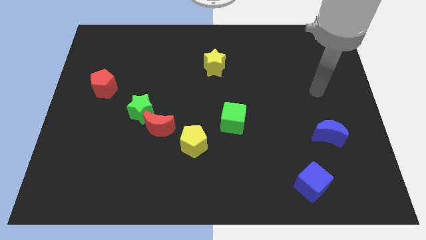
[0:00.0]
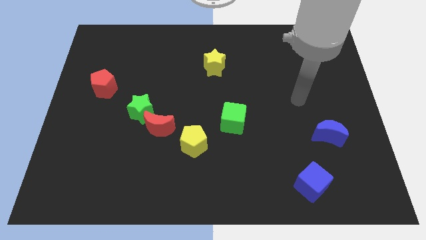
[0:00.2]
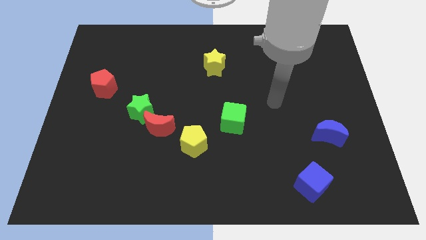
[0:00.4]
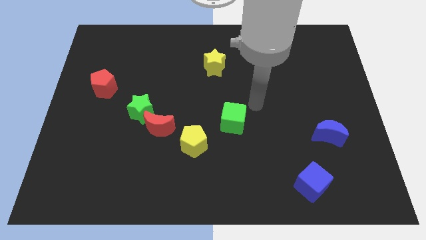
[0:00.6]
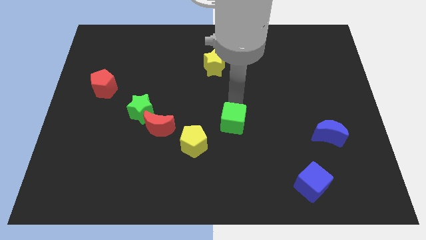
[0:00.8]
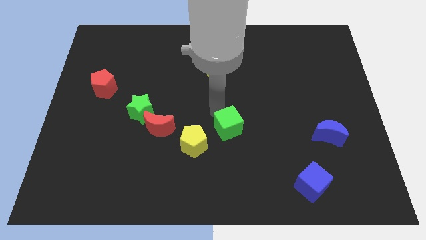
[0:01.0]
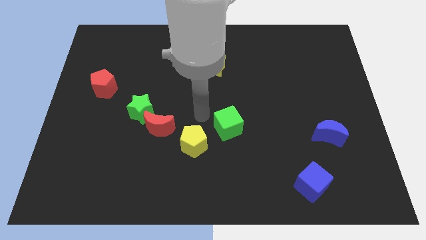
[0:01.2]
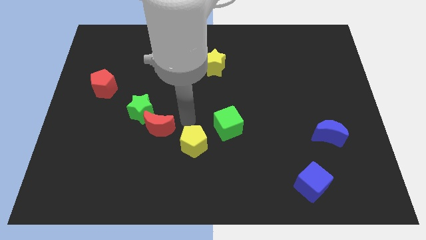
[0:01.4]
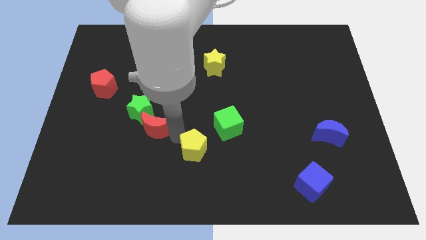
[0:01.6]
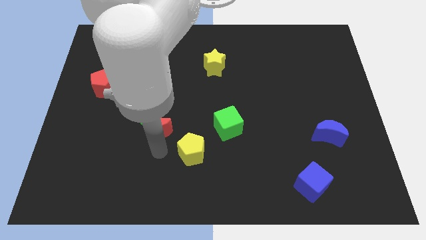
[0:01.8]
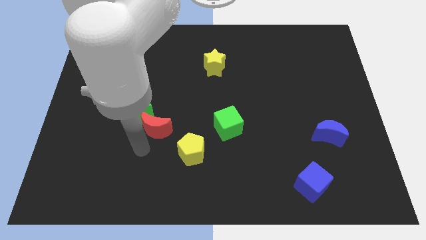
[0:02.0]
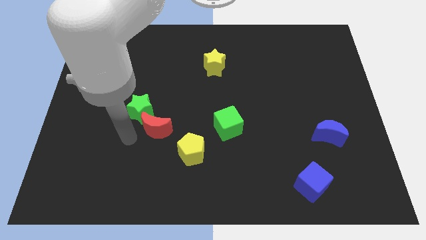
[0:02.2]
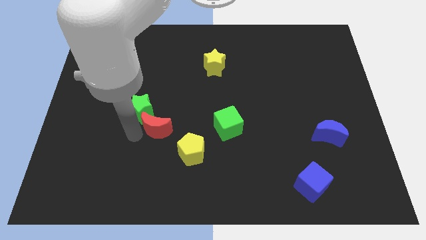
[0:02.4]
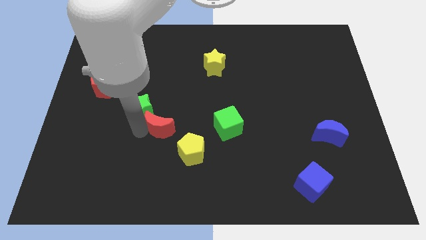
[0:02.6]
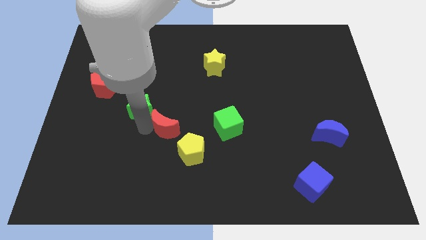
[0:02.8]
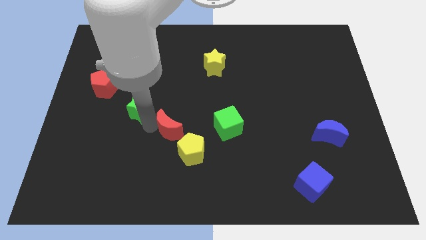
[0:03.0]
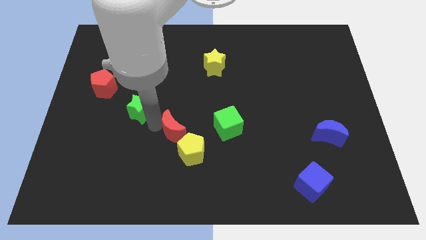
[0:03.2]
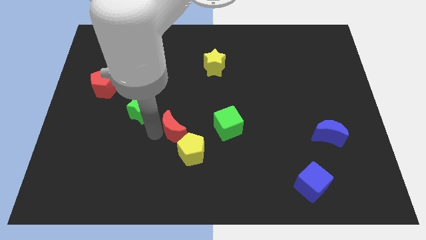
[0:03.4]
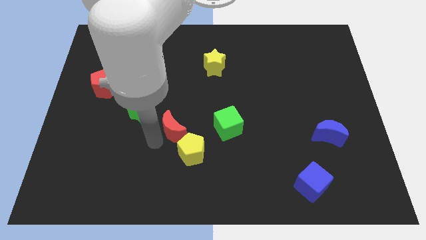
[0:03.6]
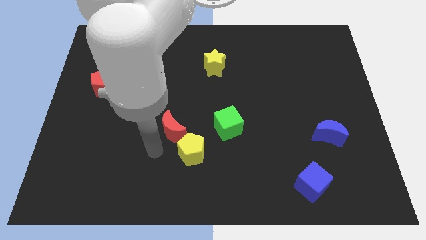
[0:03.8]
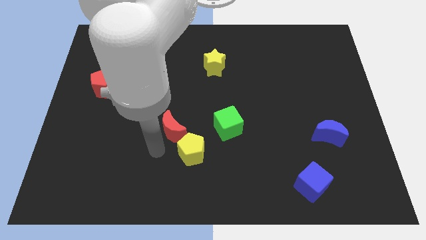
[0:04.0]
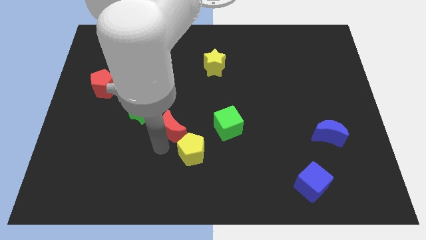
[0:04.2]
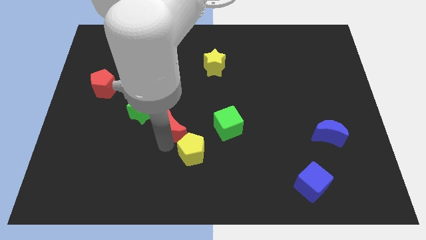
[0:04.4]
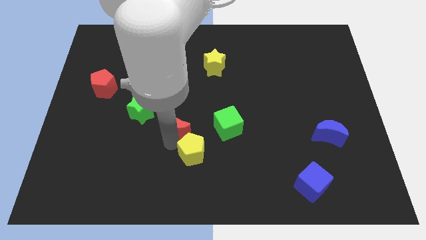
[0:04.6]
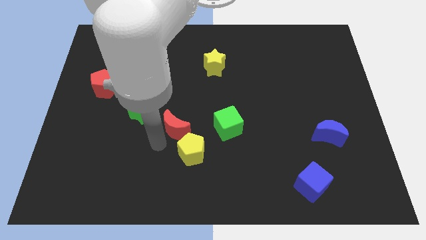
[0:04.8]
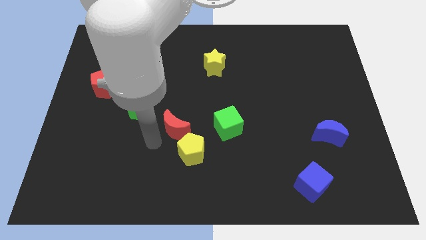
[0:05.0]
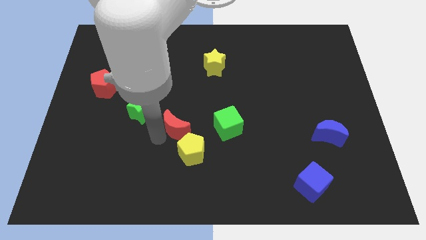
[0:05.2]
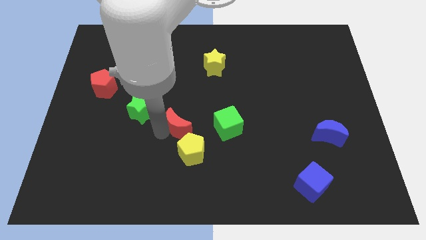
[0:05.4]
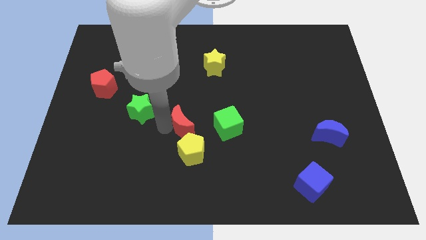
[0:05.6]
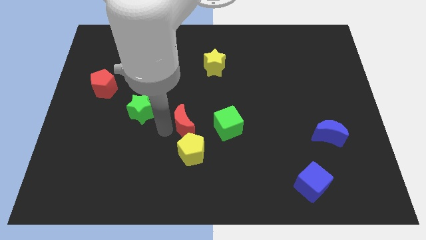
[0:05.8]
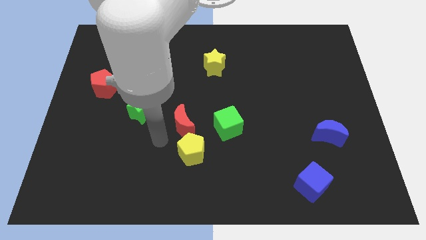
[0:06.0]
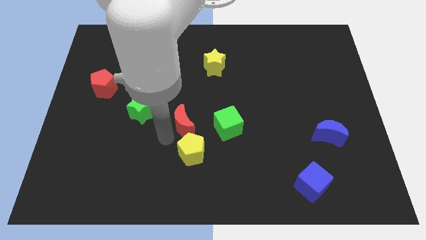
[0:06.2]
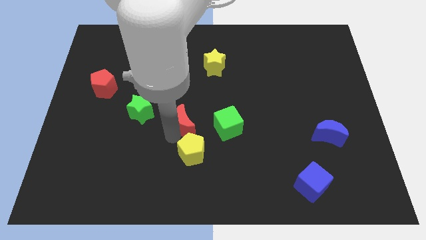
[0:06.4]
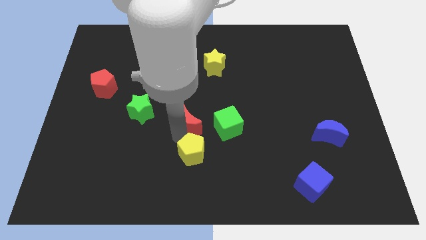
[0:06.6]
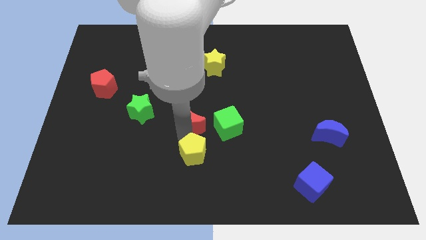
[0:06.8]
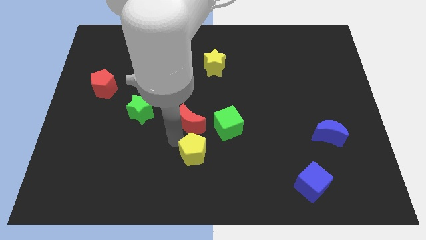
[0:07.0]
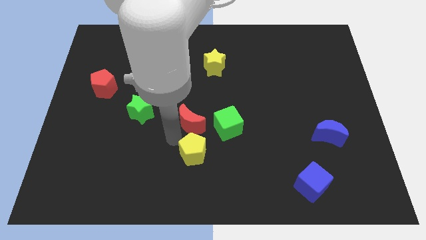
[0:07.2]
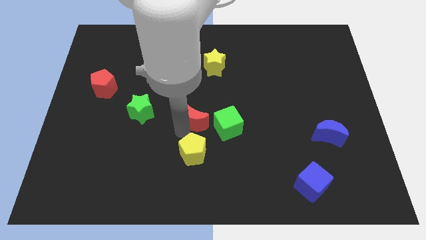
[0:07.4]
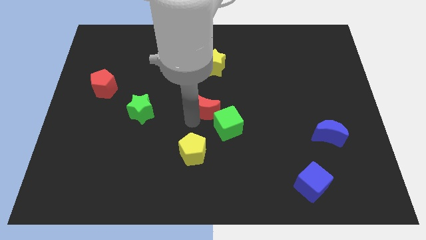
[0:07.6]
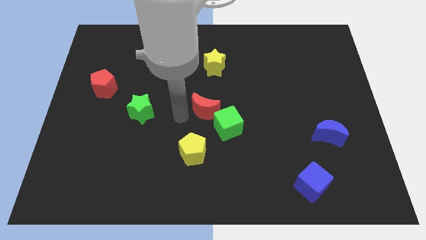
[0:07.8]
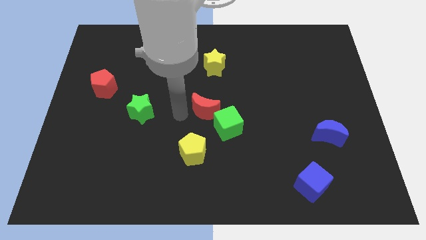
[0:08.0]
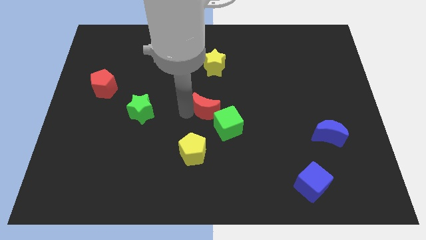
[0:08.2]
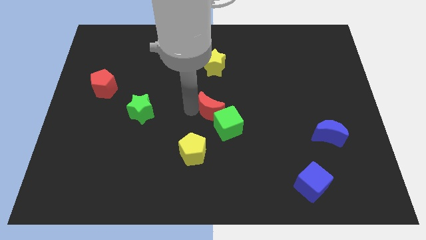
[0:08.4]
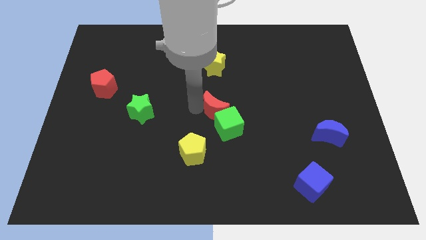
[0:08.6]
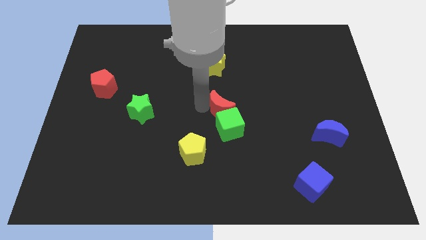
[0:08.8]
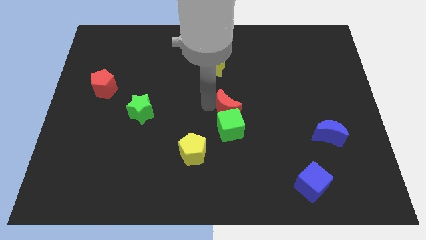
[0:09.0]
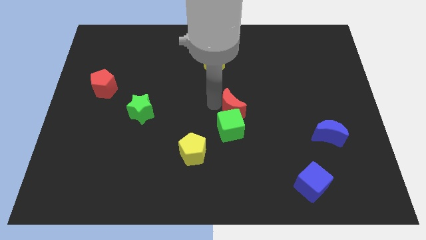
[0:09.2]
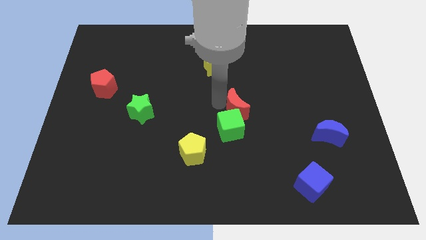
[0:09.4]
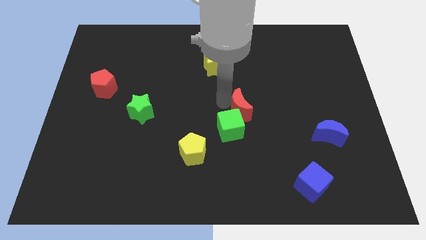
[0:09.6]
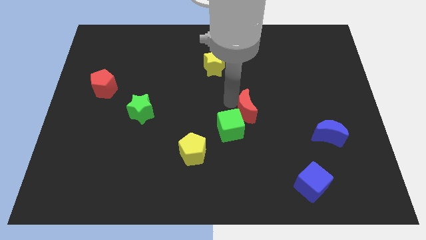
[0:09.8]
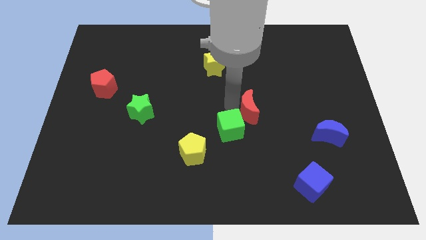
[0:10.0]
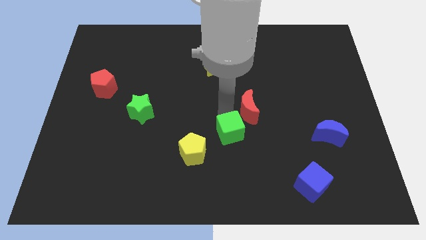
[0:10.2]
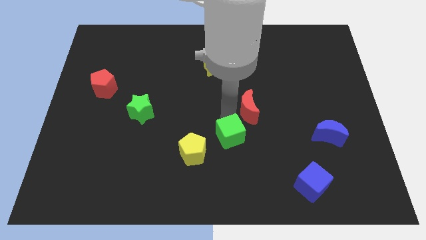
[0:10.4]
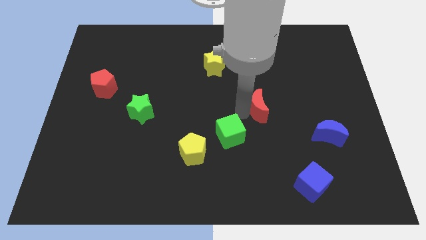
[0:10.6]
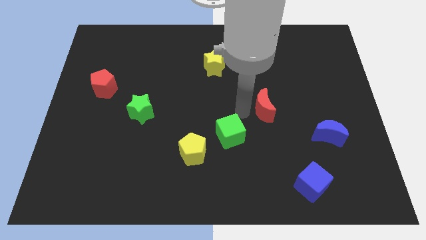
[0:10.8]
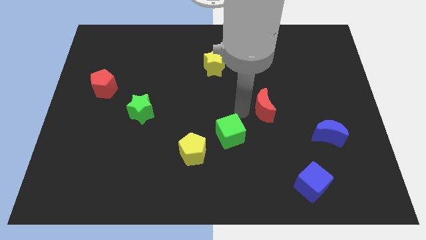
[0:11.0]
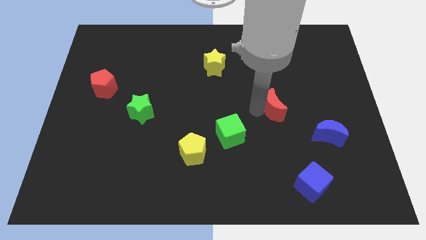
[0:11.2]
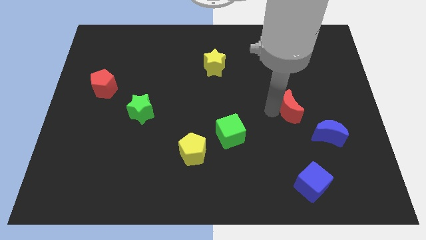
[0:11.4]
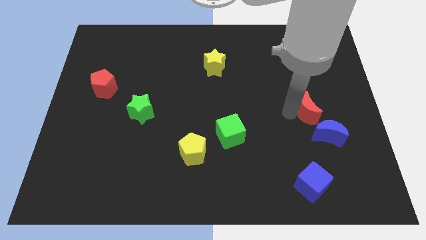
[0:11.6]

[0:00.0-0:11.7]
move the red moon to the top side of the blue moon

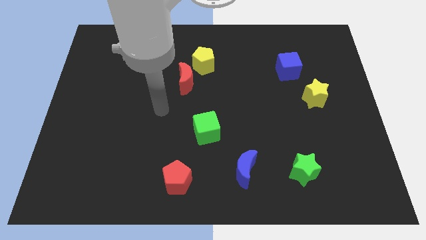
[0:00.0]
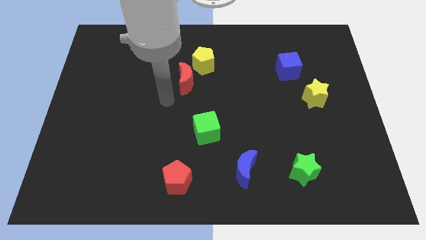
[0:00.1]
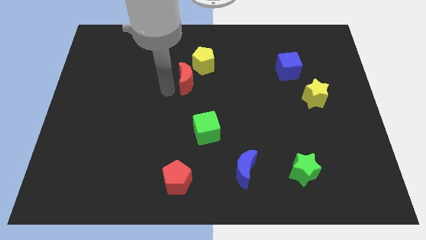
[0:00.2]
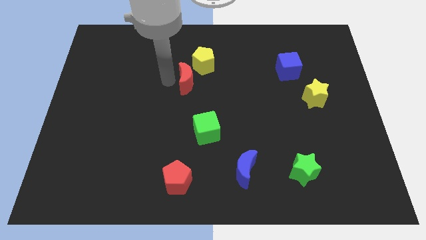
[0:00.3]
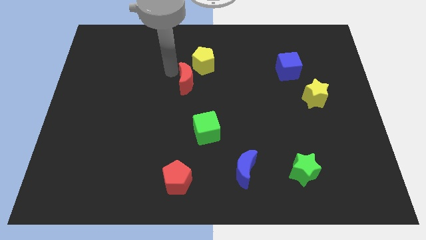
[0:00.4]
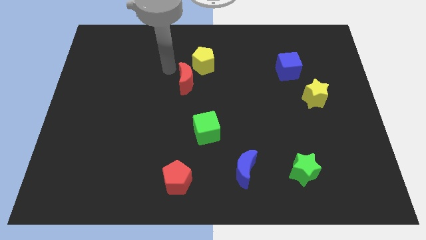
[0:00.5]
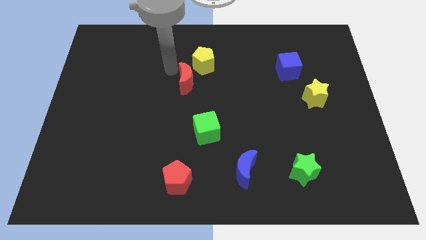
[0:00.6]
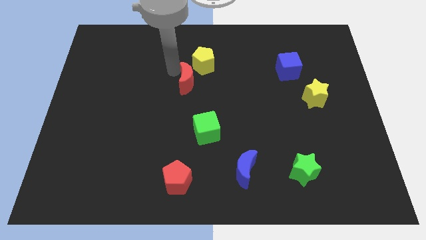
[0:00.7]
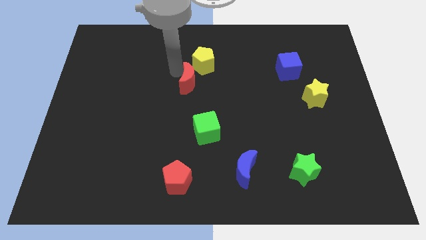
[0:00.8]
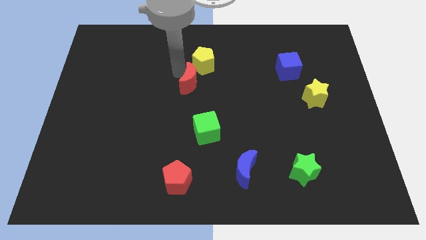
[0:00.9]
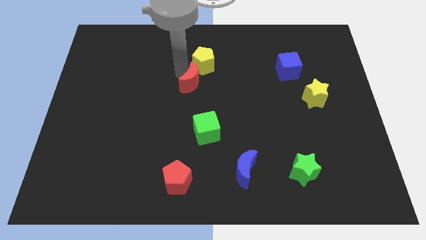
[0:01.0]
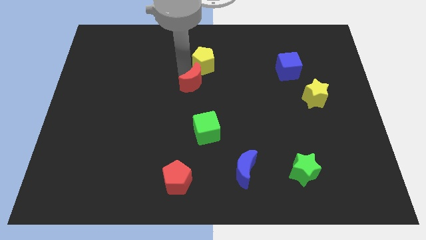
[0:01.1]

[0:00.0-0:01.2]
move the red moon to the top side of the green cube

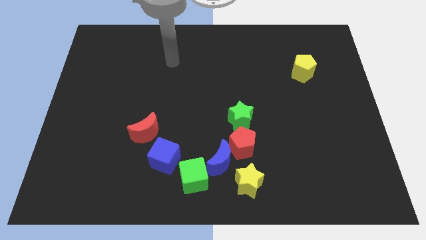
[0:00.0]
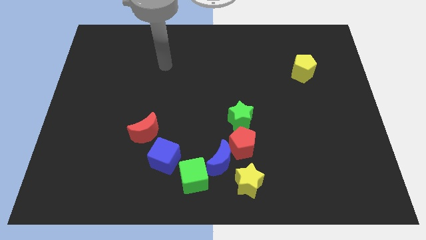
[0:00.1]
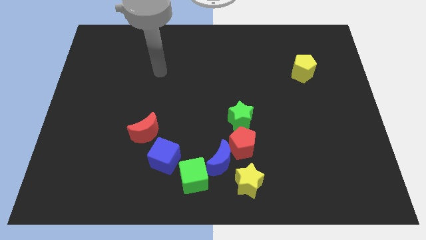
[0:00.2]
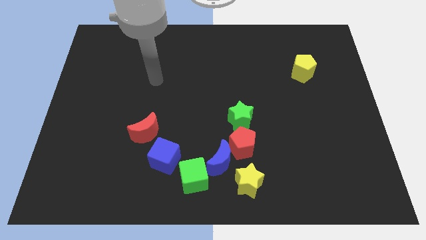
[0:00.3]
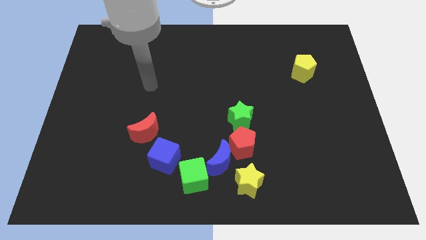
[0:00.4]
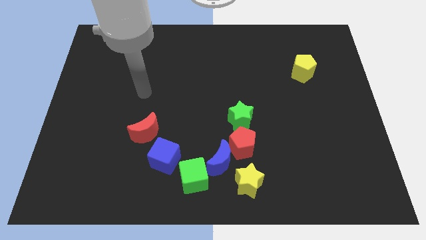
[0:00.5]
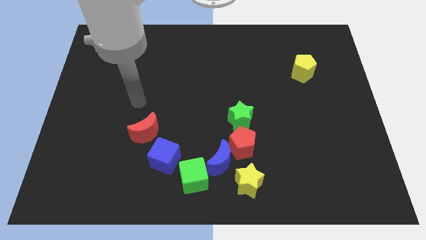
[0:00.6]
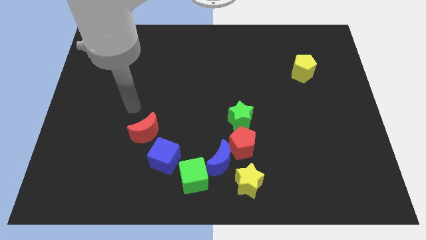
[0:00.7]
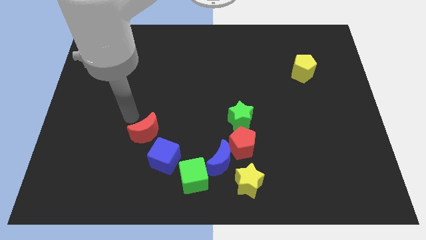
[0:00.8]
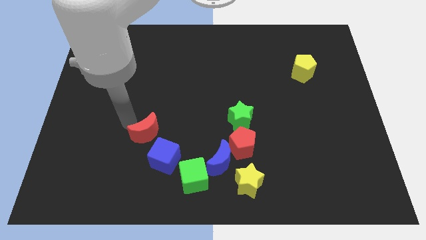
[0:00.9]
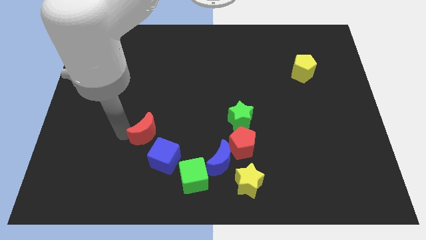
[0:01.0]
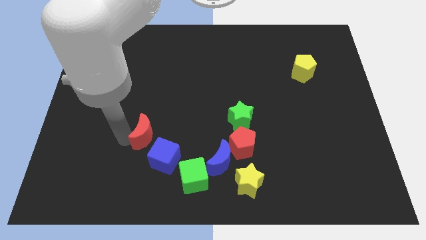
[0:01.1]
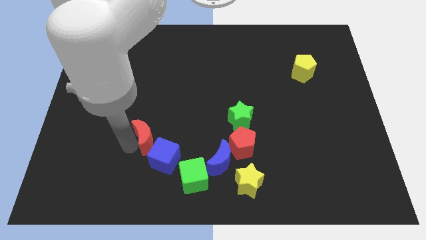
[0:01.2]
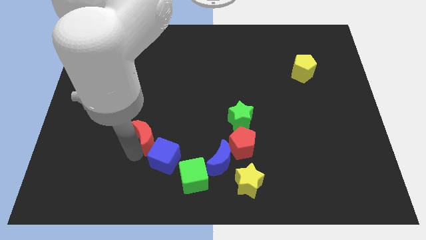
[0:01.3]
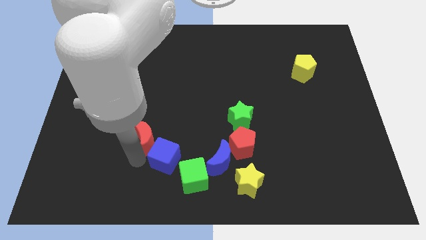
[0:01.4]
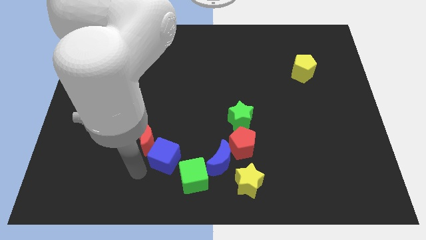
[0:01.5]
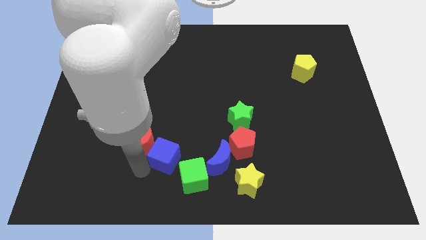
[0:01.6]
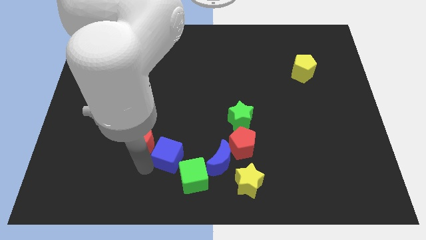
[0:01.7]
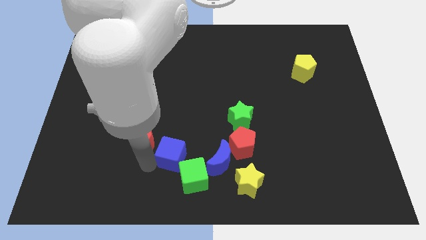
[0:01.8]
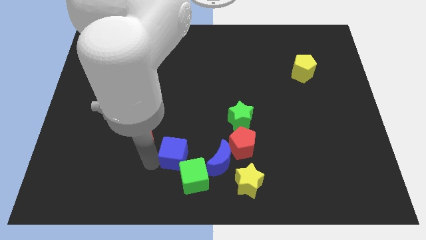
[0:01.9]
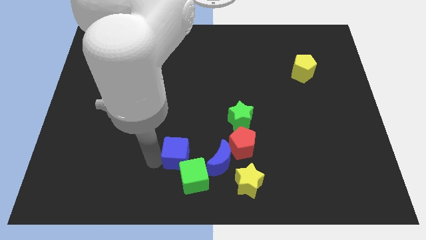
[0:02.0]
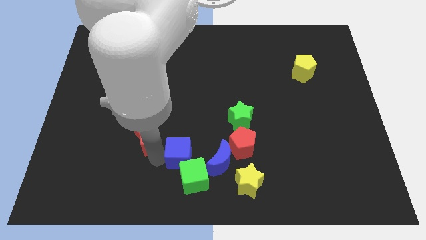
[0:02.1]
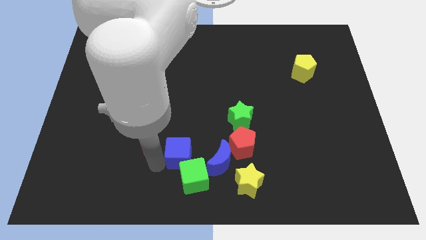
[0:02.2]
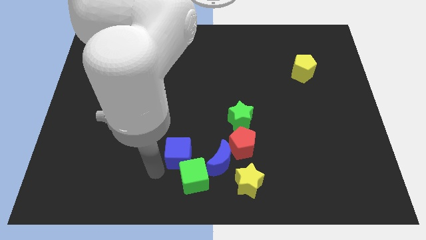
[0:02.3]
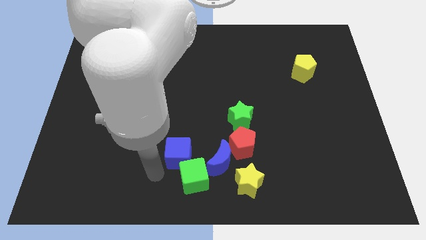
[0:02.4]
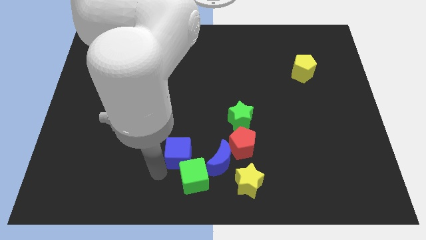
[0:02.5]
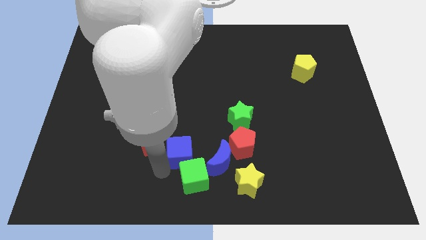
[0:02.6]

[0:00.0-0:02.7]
push the blue cube to the top left side of the blue moon
